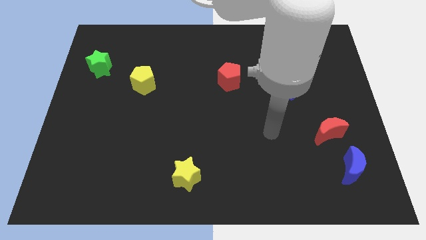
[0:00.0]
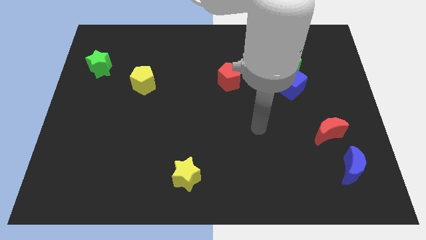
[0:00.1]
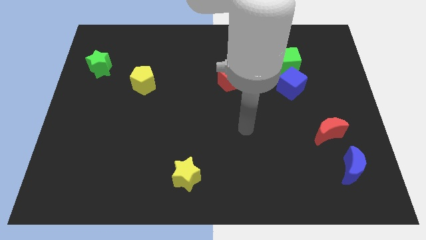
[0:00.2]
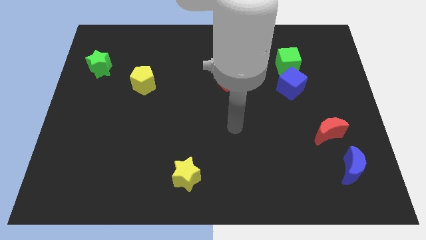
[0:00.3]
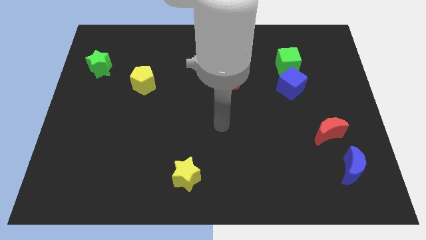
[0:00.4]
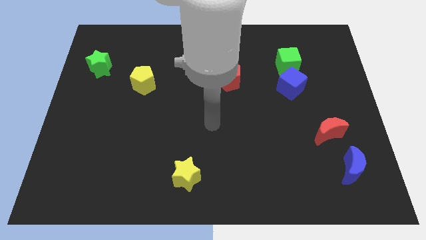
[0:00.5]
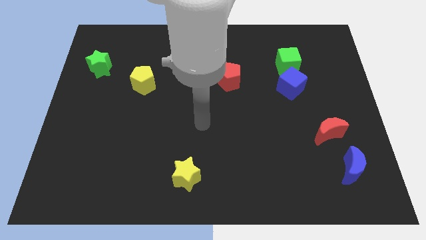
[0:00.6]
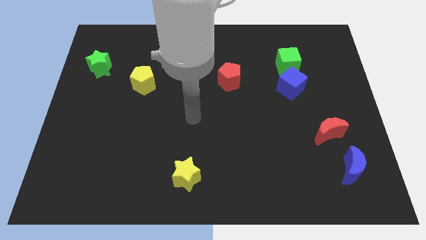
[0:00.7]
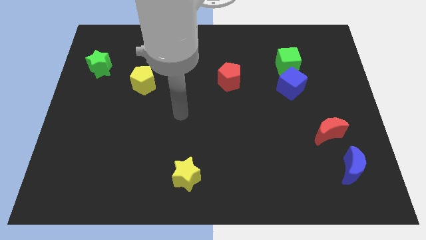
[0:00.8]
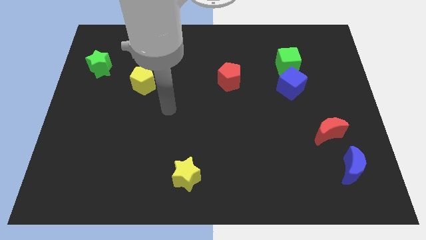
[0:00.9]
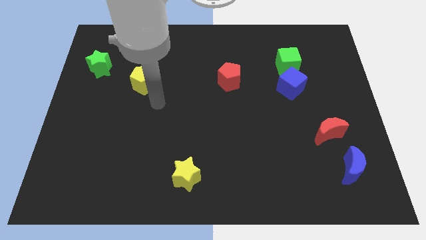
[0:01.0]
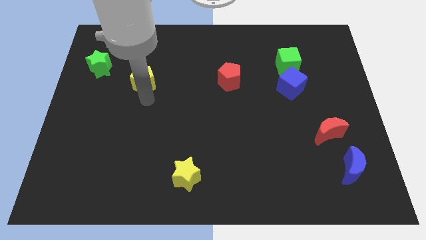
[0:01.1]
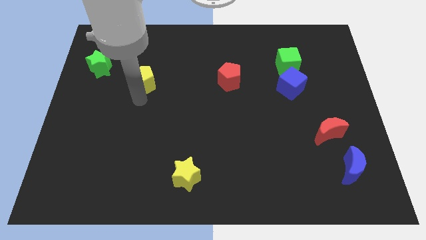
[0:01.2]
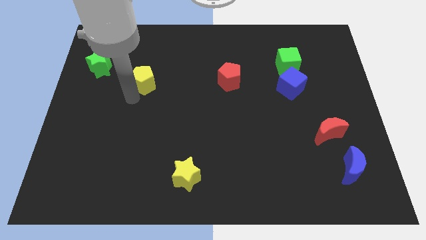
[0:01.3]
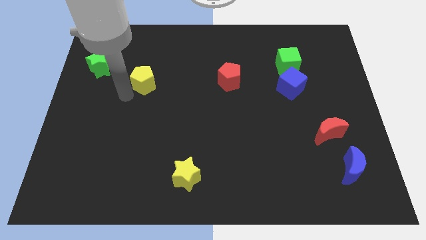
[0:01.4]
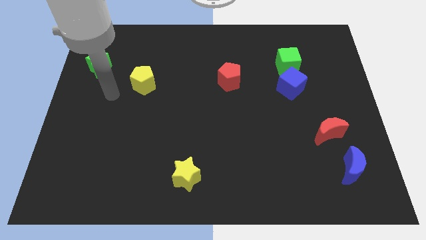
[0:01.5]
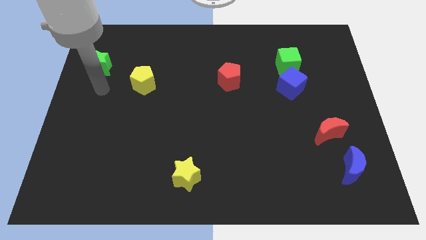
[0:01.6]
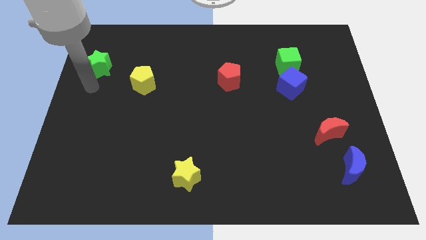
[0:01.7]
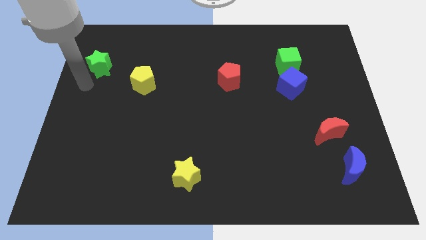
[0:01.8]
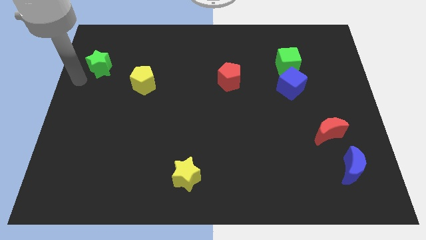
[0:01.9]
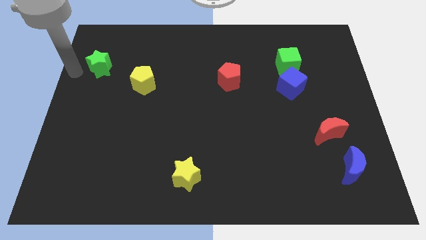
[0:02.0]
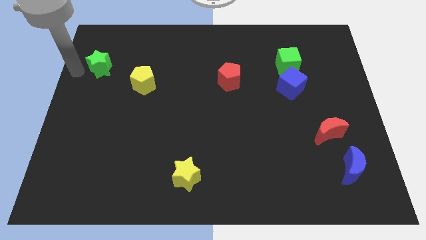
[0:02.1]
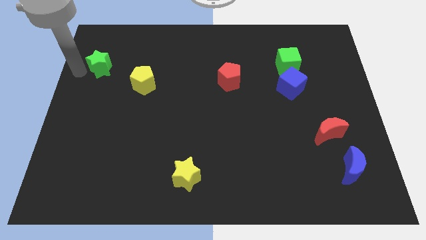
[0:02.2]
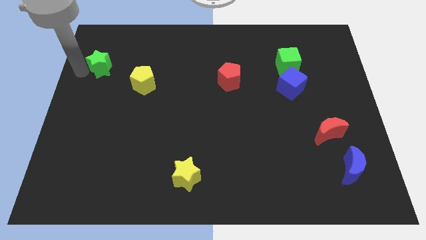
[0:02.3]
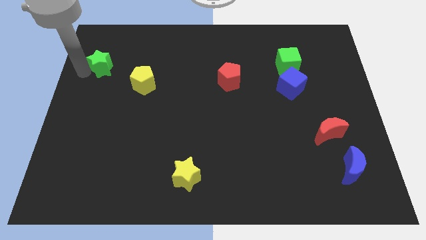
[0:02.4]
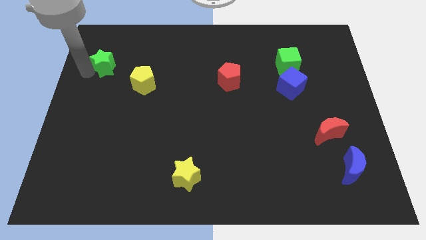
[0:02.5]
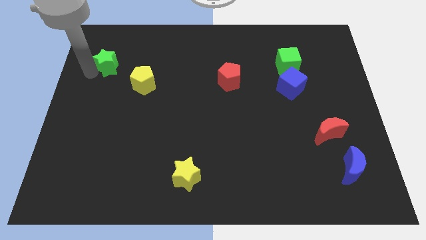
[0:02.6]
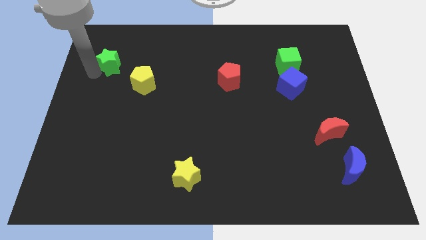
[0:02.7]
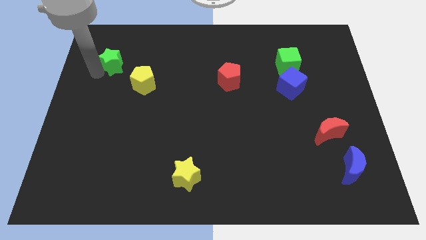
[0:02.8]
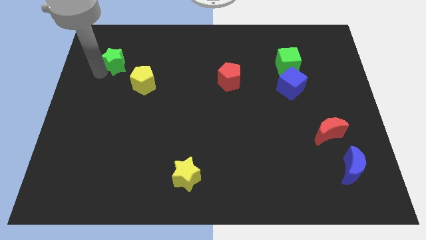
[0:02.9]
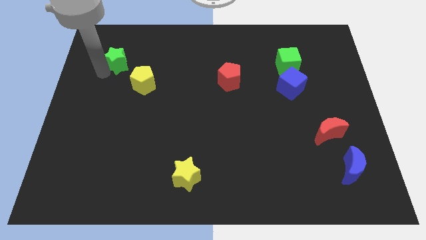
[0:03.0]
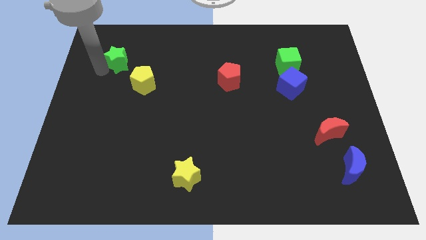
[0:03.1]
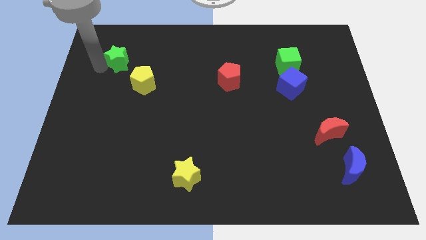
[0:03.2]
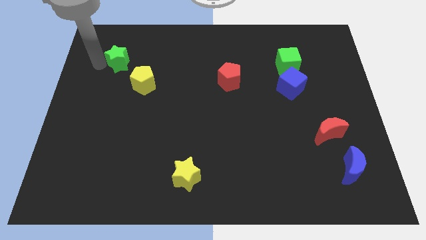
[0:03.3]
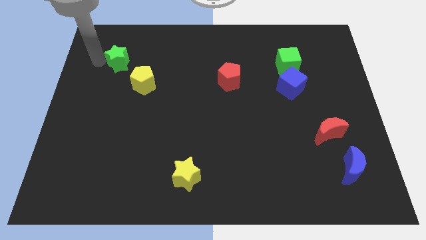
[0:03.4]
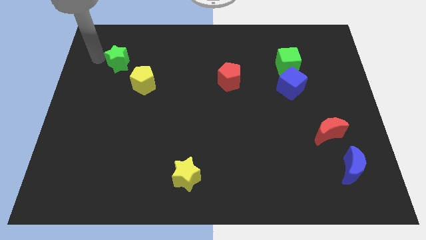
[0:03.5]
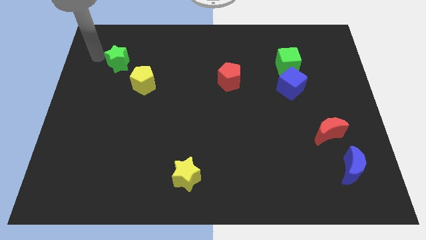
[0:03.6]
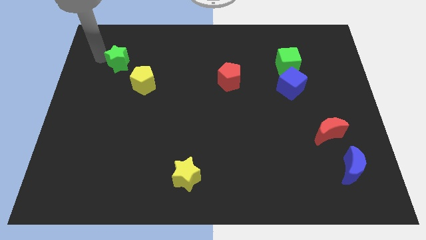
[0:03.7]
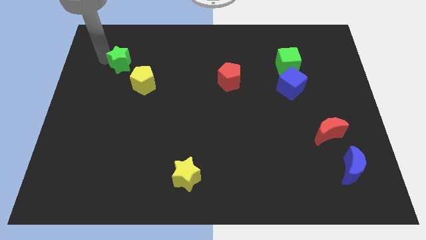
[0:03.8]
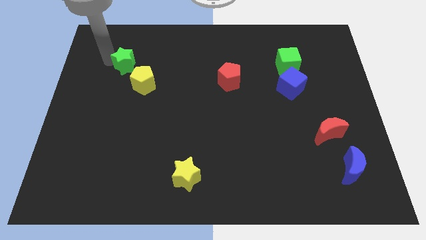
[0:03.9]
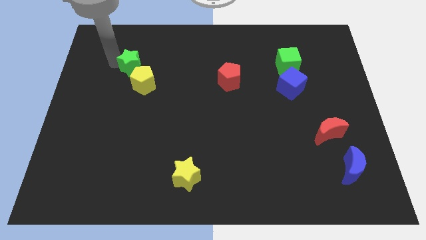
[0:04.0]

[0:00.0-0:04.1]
move the green star to the right somewhat

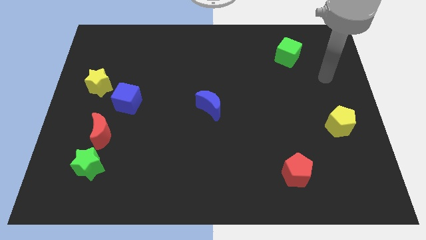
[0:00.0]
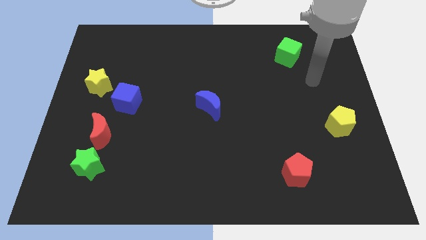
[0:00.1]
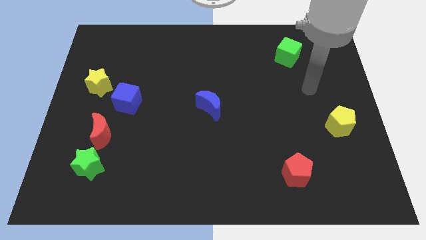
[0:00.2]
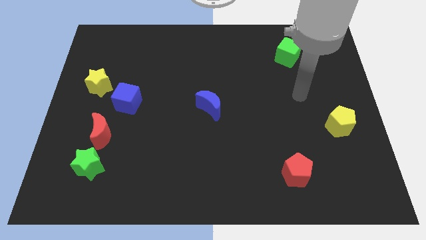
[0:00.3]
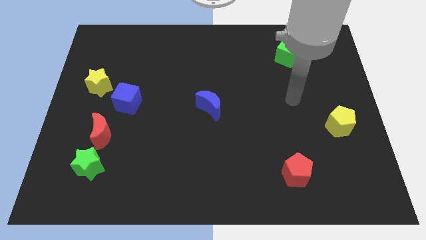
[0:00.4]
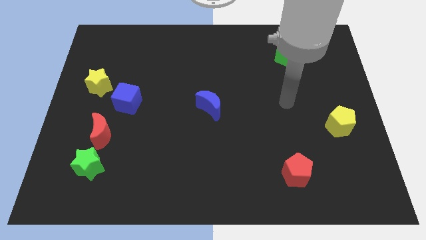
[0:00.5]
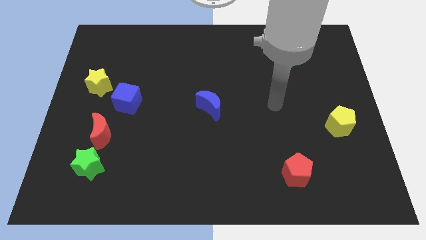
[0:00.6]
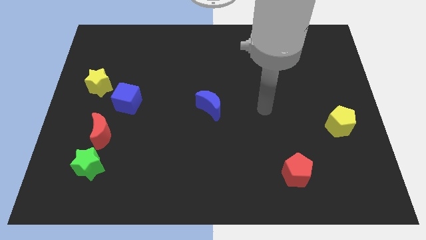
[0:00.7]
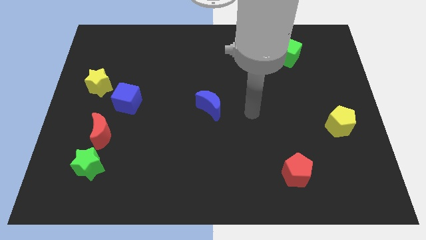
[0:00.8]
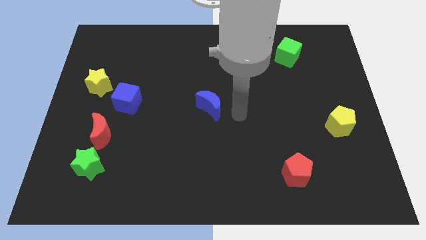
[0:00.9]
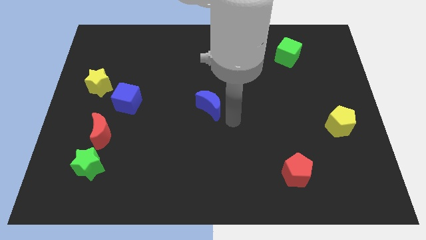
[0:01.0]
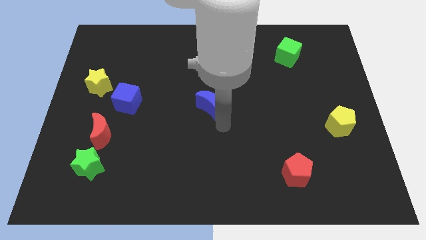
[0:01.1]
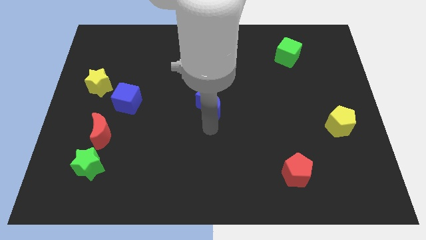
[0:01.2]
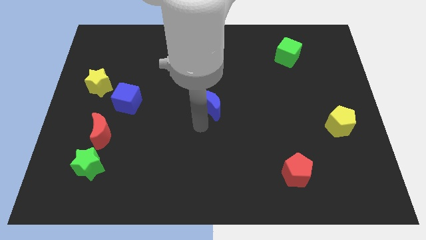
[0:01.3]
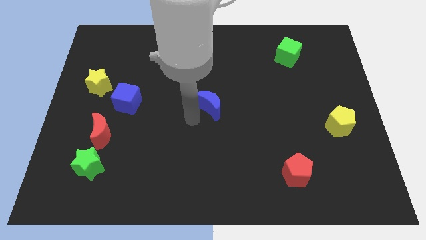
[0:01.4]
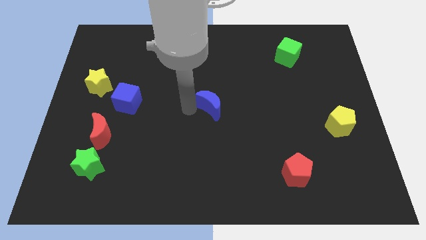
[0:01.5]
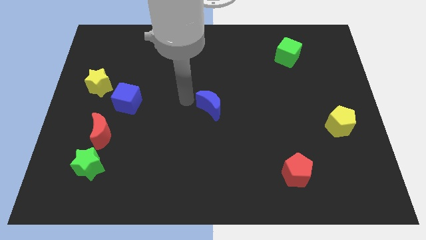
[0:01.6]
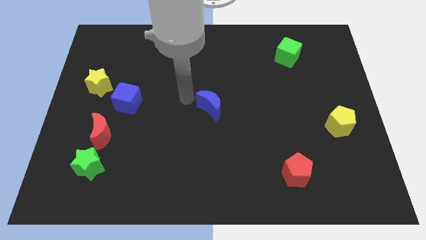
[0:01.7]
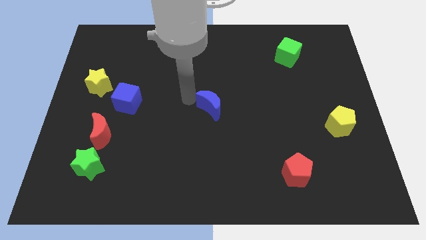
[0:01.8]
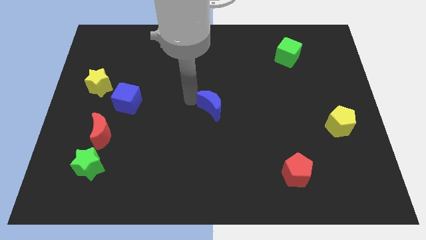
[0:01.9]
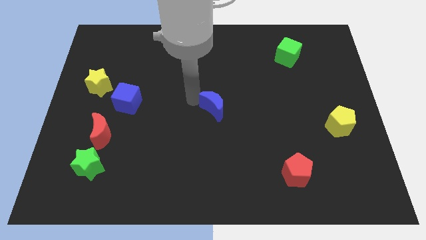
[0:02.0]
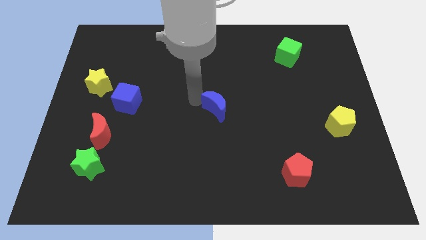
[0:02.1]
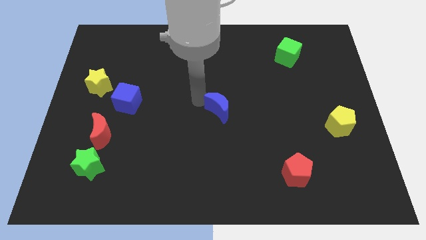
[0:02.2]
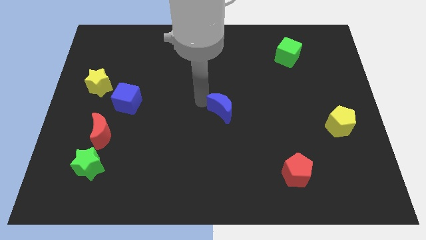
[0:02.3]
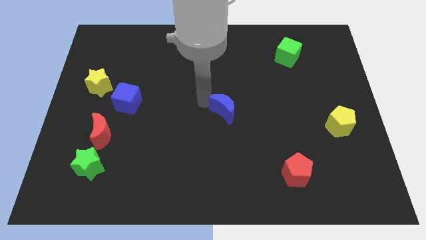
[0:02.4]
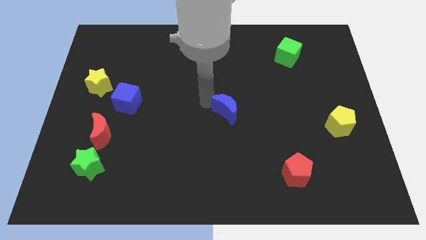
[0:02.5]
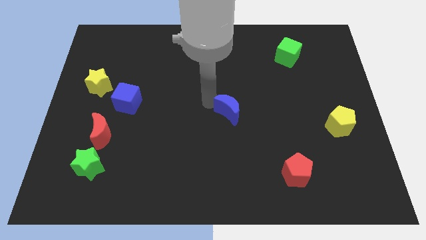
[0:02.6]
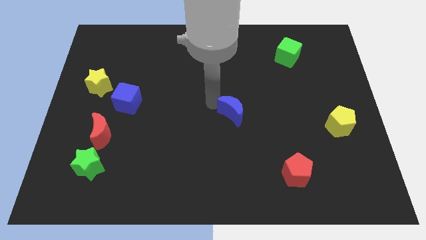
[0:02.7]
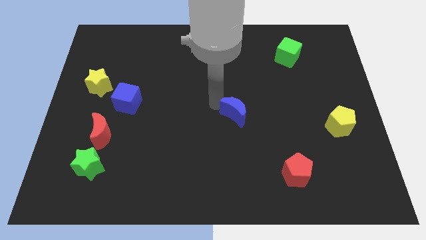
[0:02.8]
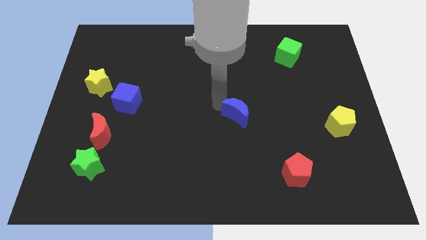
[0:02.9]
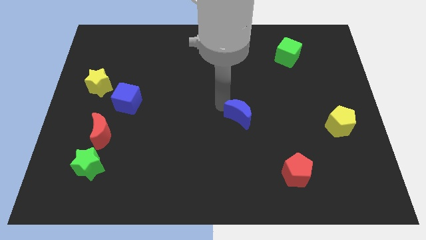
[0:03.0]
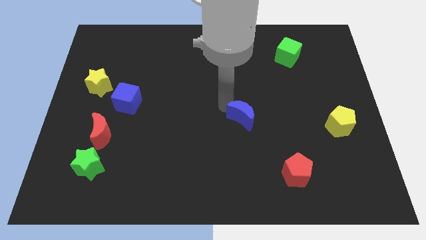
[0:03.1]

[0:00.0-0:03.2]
push the blue moon right somewhat

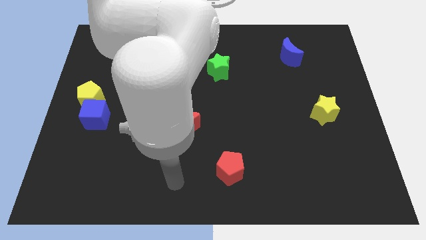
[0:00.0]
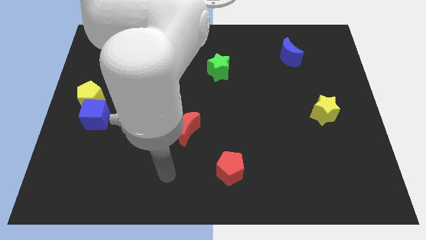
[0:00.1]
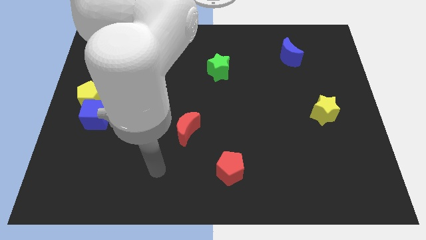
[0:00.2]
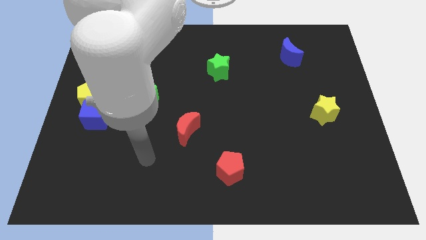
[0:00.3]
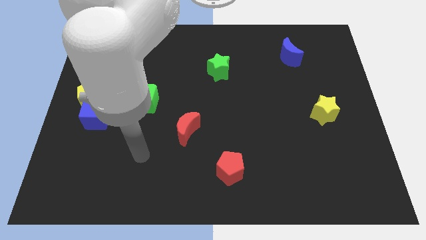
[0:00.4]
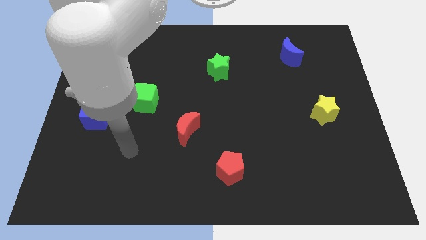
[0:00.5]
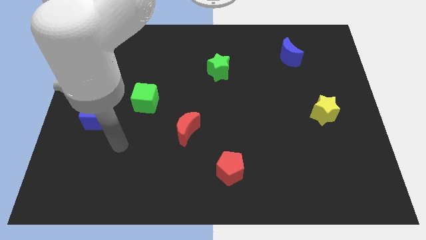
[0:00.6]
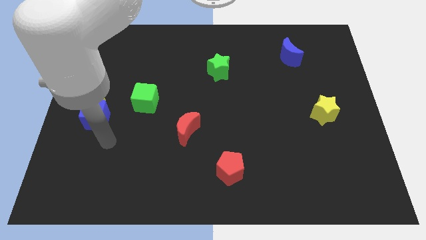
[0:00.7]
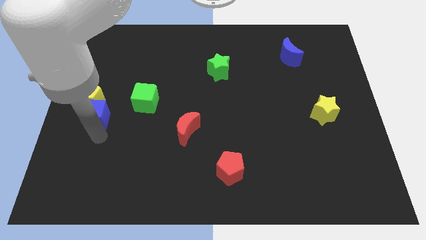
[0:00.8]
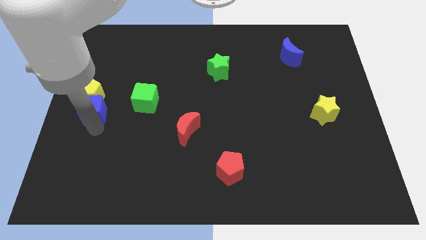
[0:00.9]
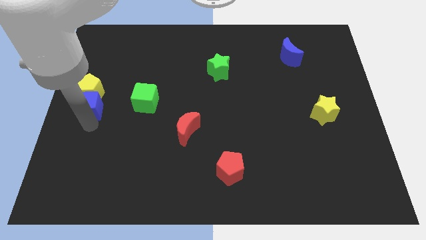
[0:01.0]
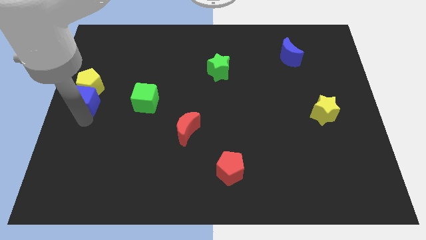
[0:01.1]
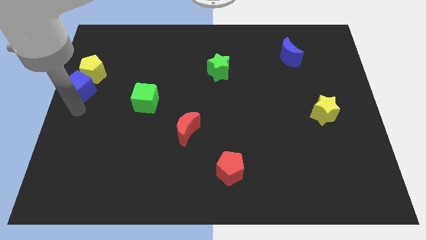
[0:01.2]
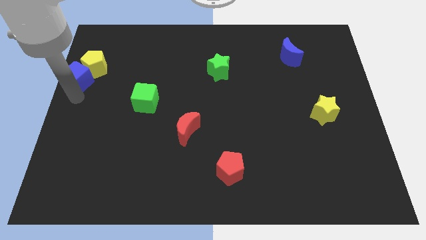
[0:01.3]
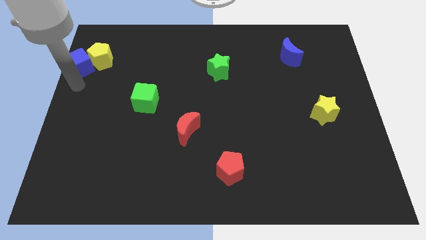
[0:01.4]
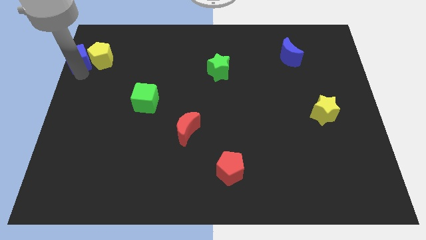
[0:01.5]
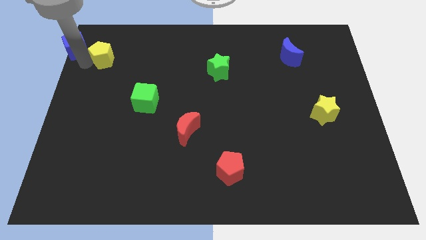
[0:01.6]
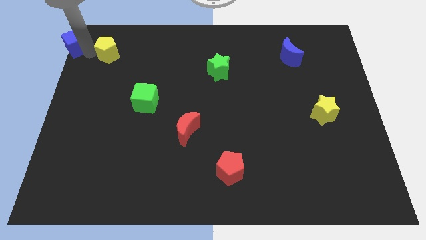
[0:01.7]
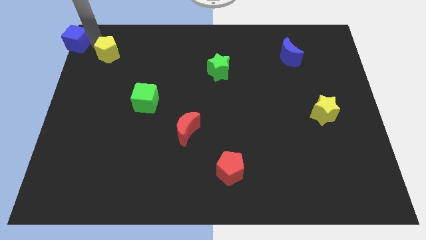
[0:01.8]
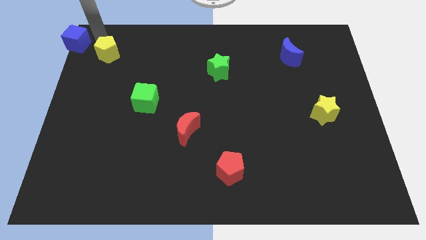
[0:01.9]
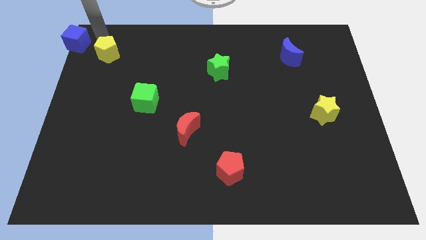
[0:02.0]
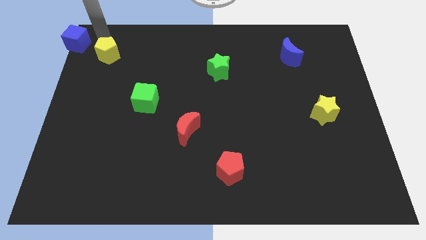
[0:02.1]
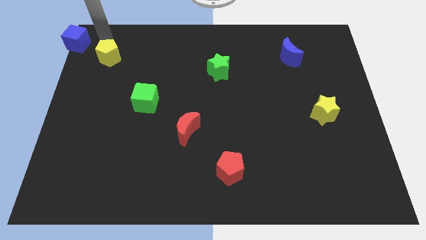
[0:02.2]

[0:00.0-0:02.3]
move the yellow pentagon a bit diagonally upwards and right
